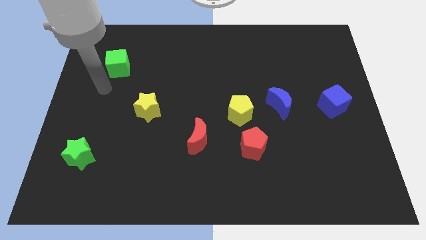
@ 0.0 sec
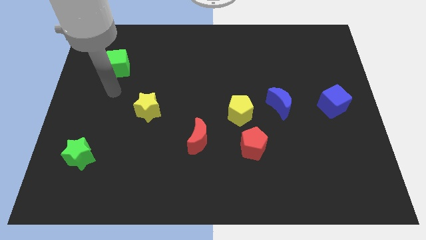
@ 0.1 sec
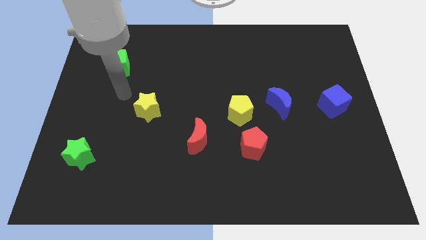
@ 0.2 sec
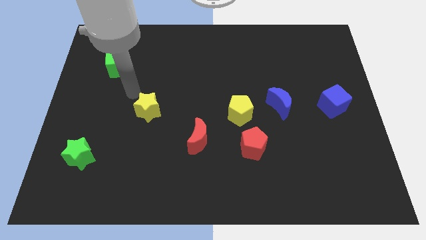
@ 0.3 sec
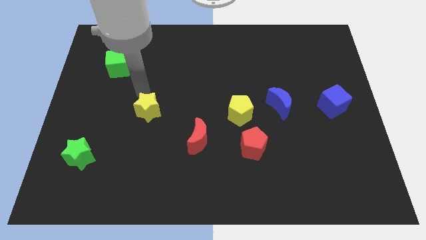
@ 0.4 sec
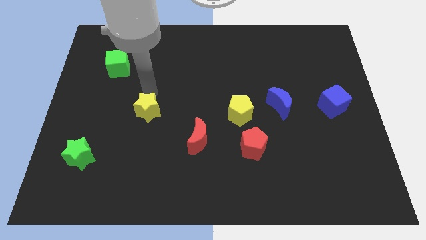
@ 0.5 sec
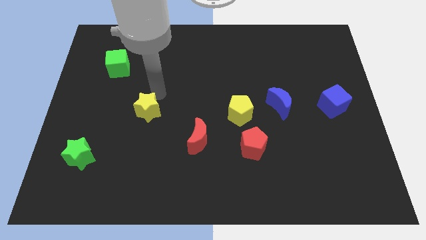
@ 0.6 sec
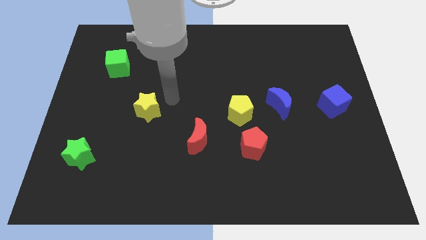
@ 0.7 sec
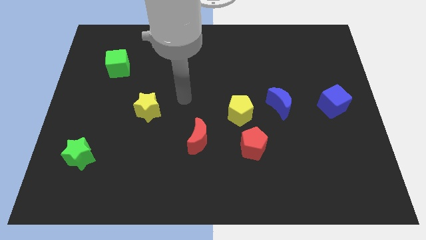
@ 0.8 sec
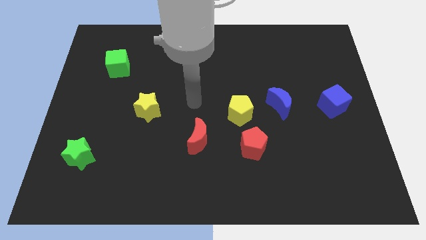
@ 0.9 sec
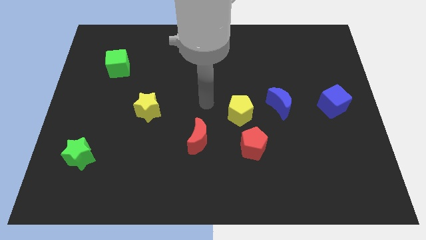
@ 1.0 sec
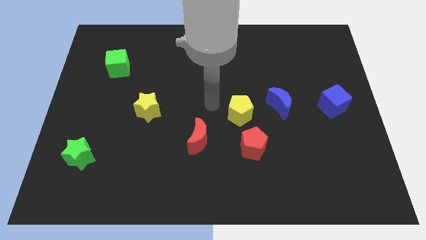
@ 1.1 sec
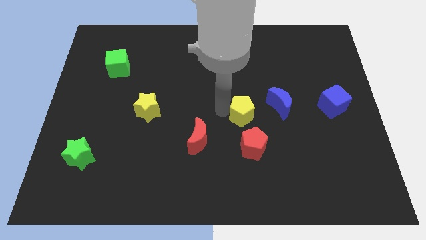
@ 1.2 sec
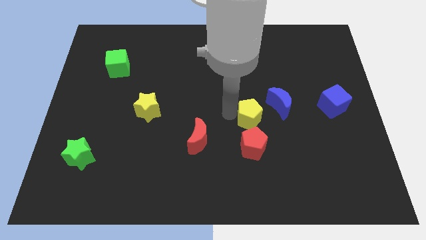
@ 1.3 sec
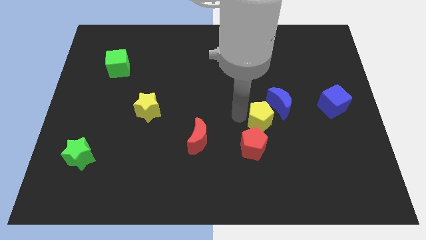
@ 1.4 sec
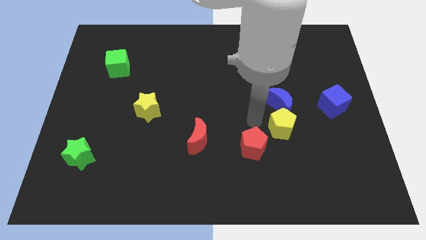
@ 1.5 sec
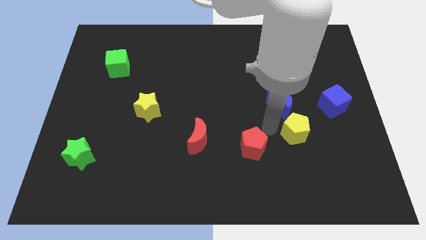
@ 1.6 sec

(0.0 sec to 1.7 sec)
pull the red pentagon apart from the yellow pentagon

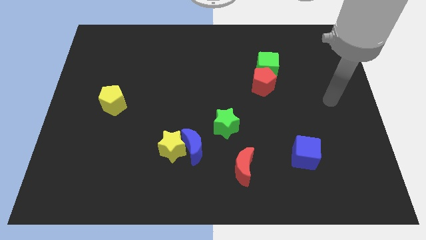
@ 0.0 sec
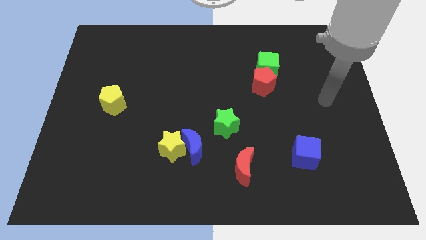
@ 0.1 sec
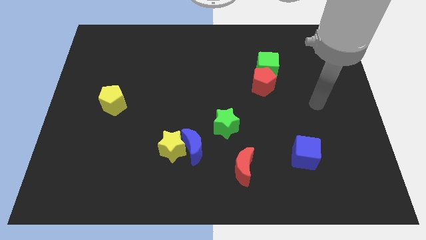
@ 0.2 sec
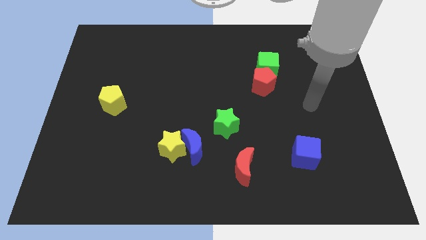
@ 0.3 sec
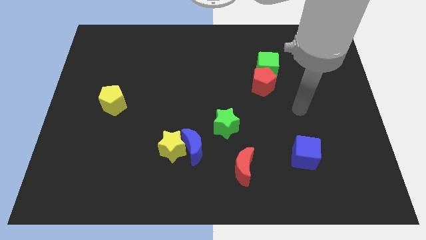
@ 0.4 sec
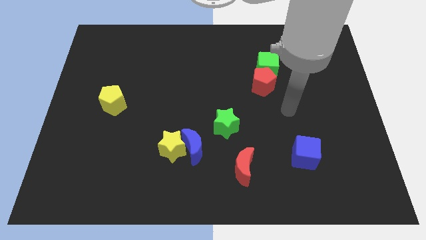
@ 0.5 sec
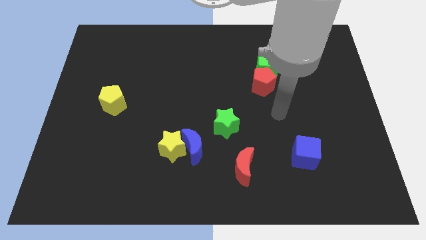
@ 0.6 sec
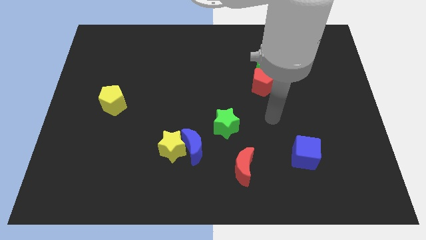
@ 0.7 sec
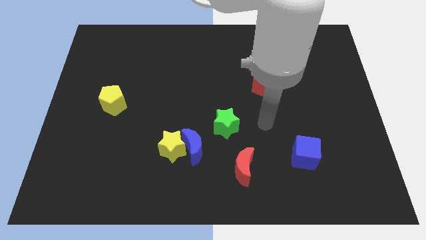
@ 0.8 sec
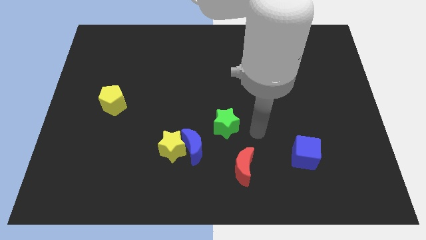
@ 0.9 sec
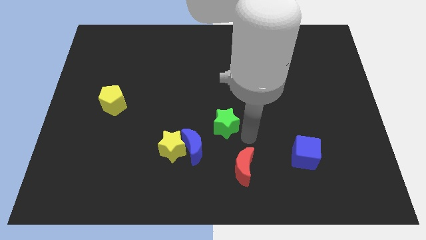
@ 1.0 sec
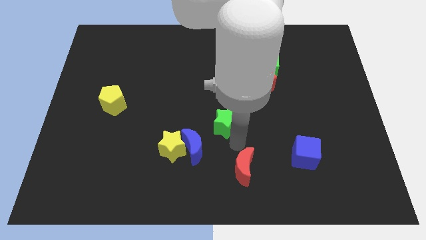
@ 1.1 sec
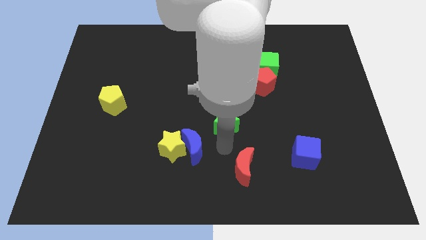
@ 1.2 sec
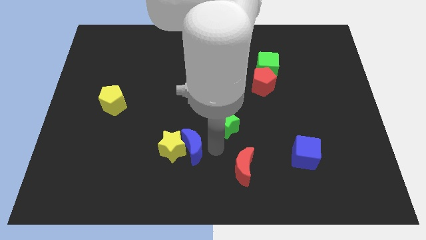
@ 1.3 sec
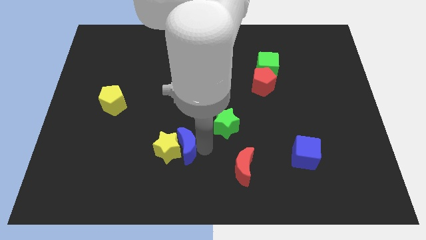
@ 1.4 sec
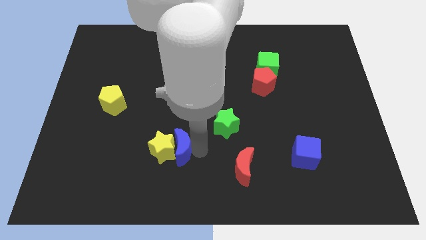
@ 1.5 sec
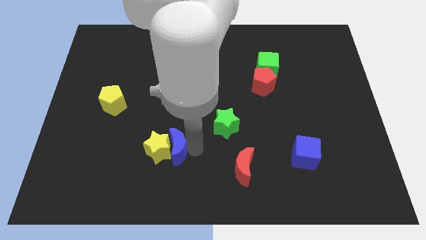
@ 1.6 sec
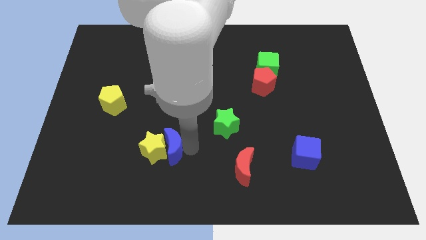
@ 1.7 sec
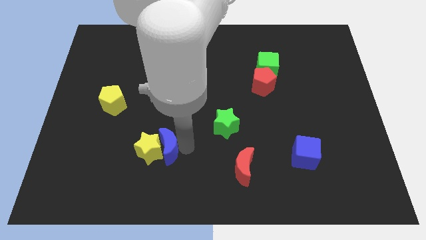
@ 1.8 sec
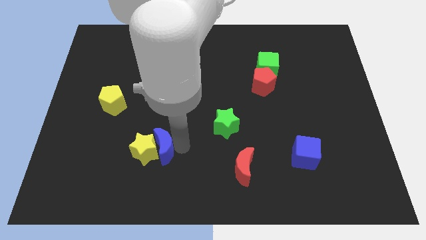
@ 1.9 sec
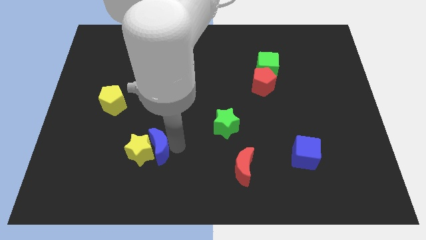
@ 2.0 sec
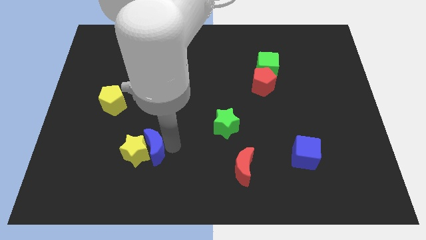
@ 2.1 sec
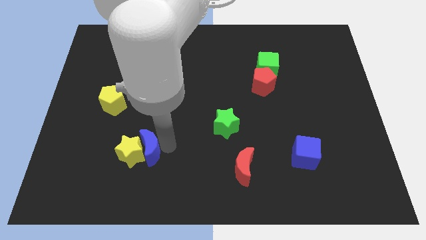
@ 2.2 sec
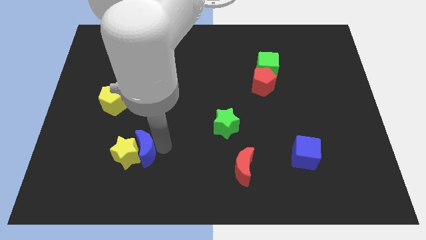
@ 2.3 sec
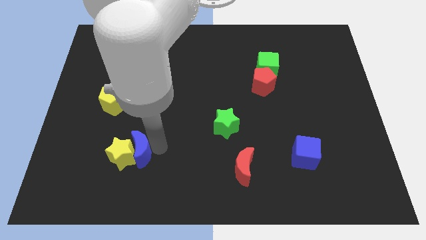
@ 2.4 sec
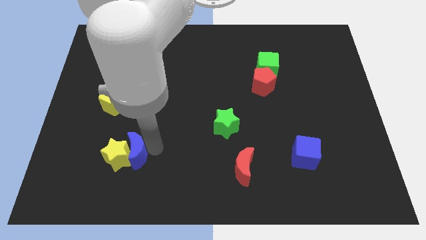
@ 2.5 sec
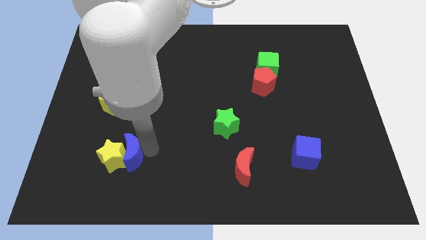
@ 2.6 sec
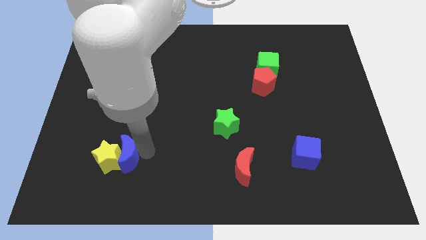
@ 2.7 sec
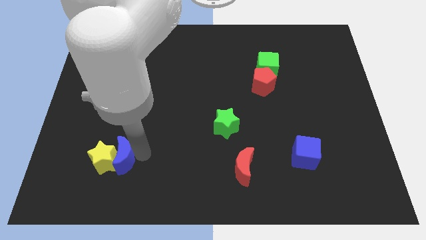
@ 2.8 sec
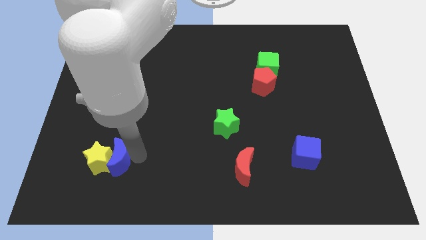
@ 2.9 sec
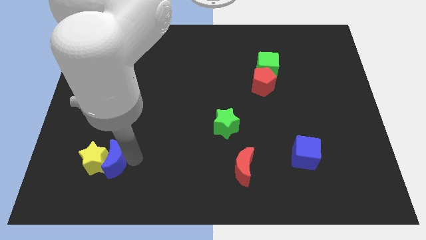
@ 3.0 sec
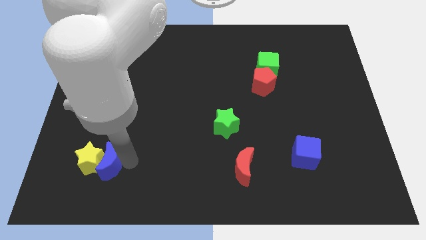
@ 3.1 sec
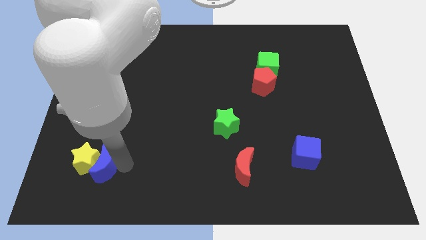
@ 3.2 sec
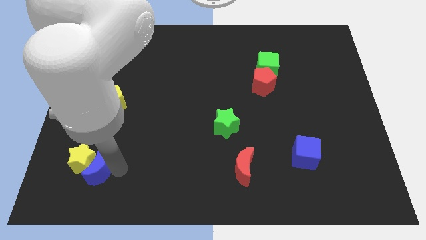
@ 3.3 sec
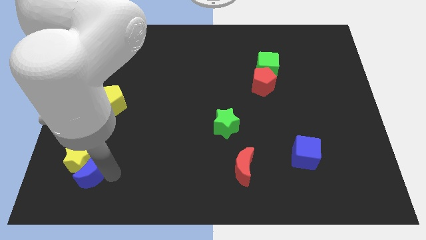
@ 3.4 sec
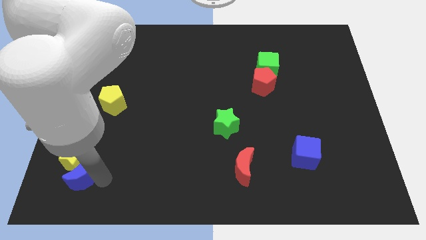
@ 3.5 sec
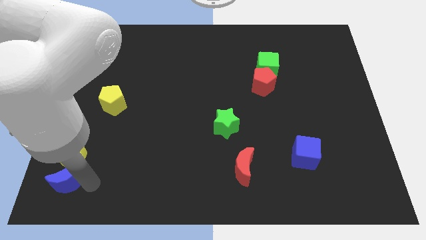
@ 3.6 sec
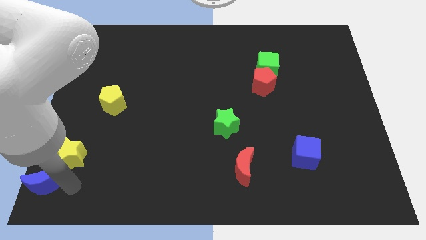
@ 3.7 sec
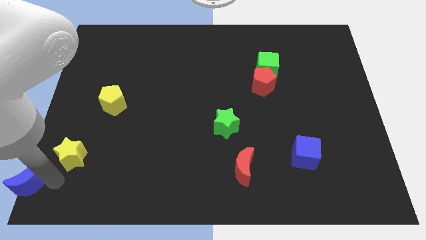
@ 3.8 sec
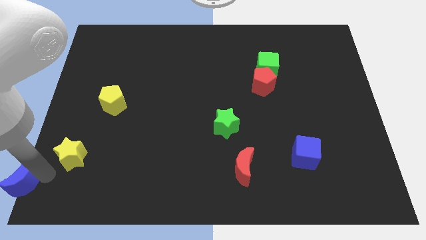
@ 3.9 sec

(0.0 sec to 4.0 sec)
pull the yellow star apart from the blue moon

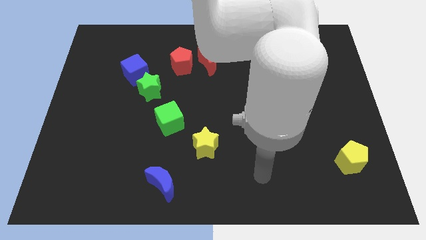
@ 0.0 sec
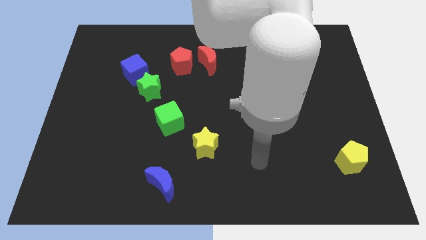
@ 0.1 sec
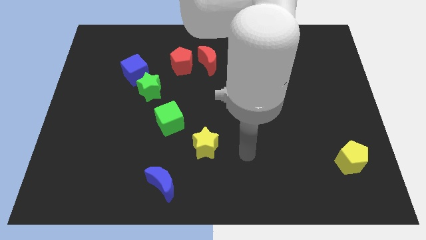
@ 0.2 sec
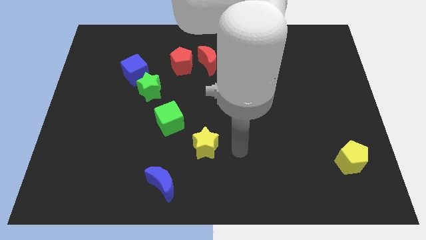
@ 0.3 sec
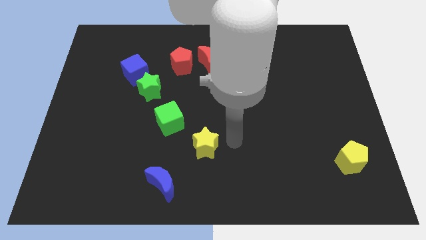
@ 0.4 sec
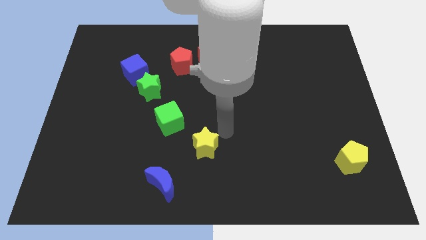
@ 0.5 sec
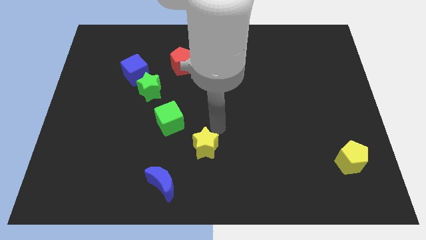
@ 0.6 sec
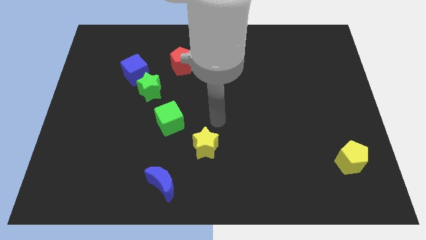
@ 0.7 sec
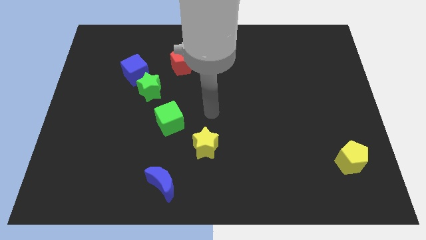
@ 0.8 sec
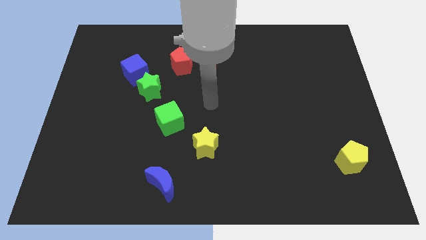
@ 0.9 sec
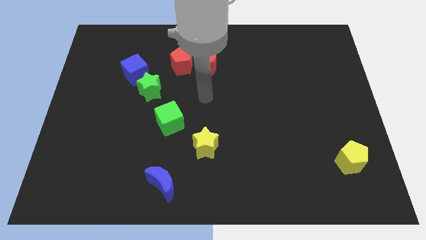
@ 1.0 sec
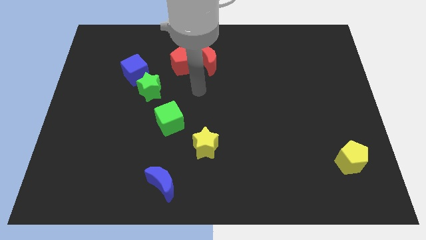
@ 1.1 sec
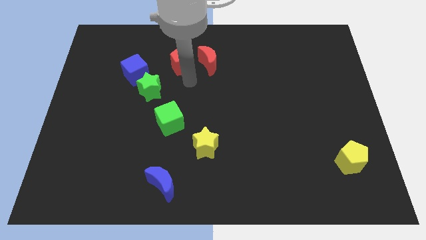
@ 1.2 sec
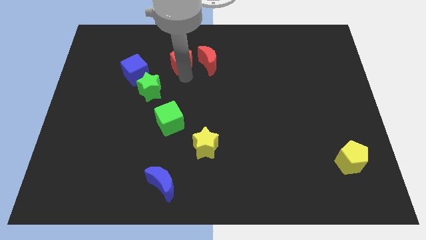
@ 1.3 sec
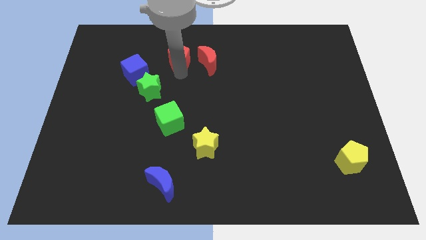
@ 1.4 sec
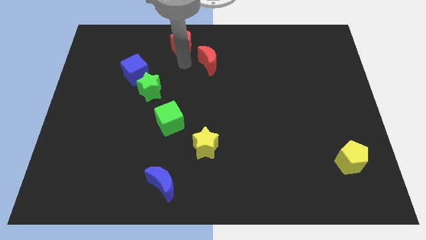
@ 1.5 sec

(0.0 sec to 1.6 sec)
pull the red moon apart from the red pentagon

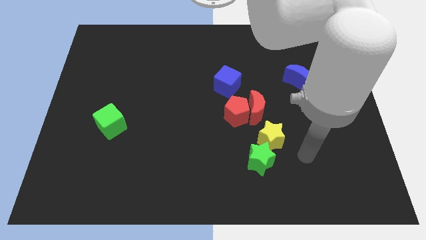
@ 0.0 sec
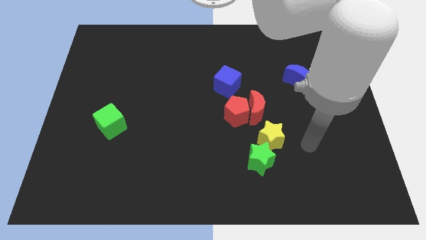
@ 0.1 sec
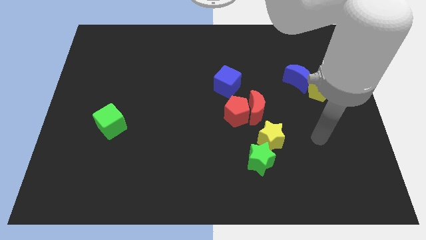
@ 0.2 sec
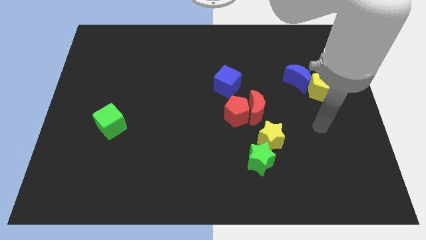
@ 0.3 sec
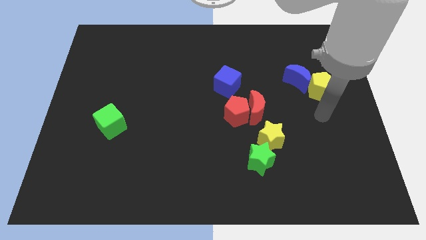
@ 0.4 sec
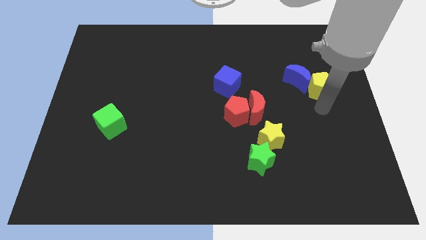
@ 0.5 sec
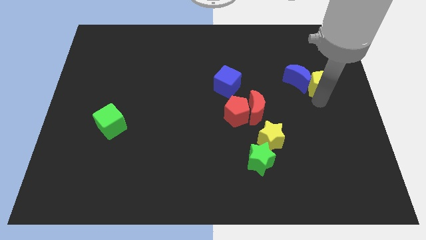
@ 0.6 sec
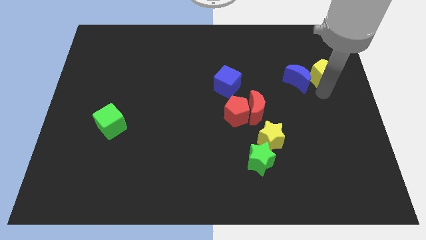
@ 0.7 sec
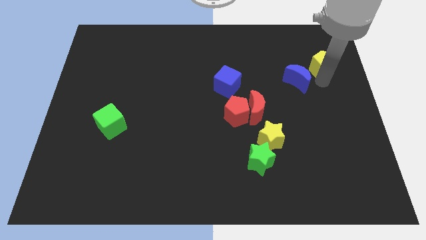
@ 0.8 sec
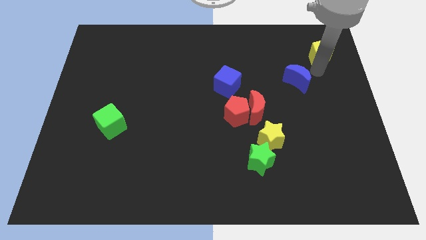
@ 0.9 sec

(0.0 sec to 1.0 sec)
pull the blue moon apart from the yellow pentagon

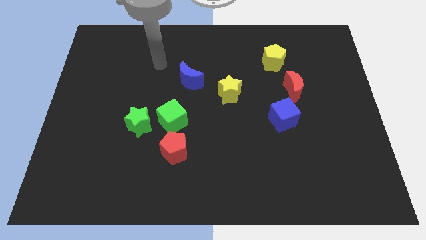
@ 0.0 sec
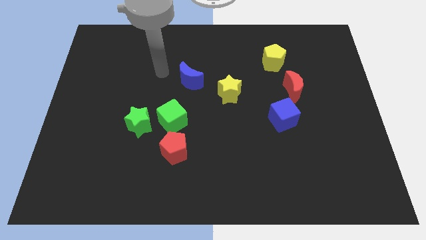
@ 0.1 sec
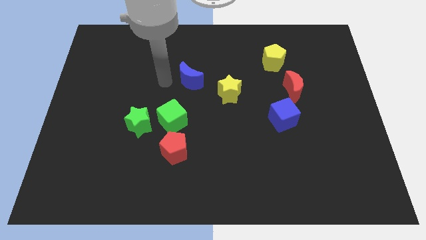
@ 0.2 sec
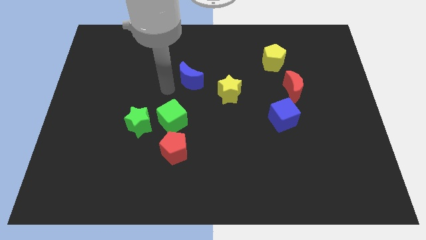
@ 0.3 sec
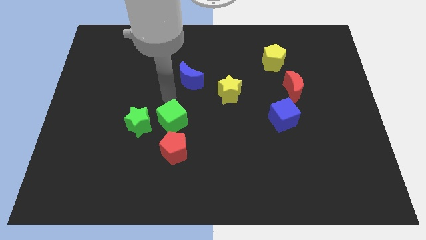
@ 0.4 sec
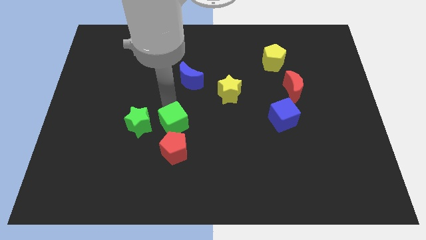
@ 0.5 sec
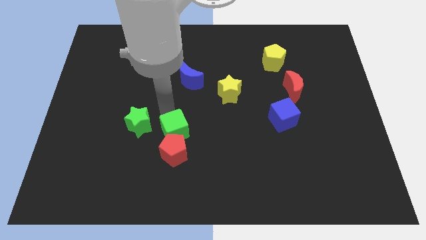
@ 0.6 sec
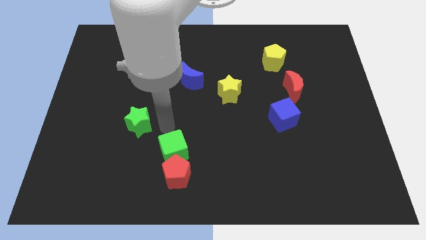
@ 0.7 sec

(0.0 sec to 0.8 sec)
move the green star away from the green cube

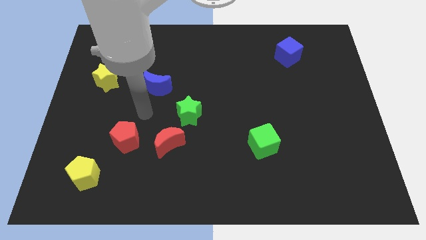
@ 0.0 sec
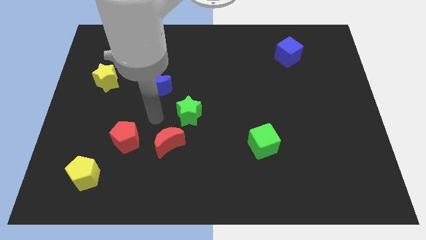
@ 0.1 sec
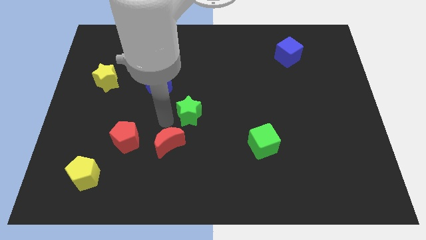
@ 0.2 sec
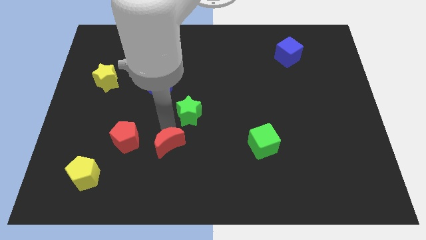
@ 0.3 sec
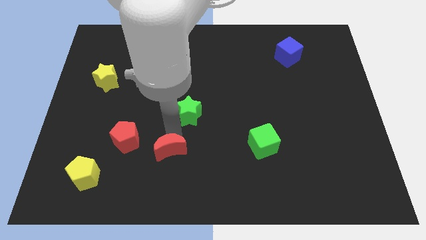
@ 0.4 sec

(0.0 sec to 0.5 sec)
move the green star away from the red moon
